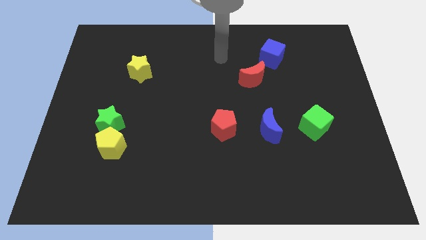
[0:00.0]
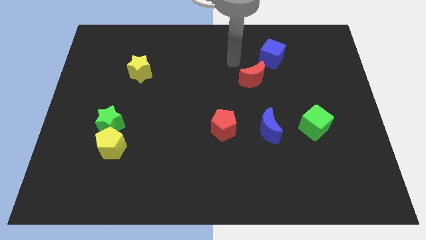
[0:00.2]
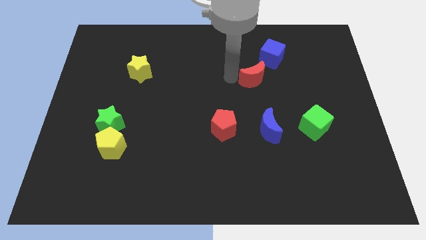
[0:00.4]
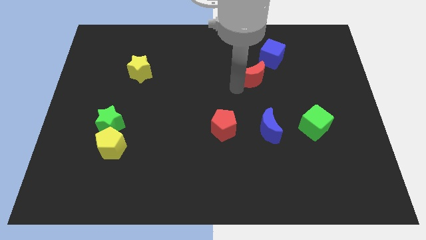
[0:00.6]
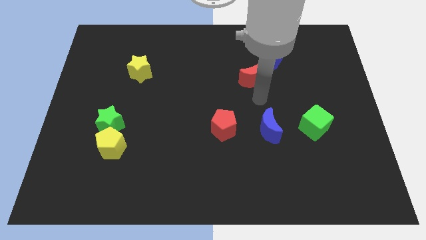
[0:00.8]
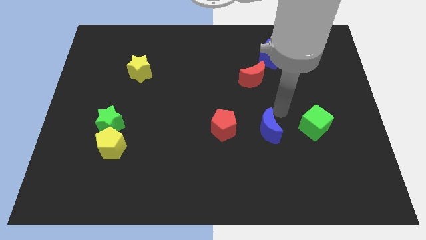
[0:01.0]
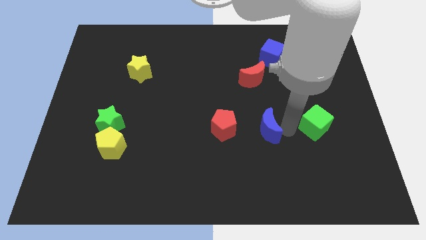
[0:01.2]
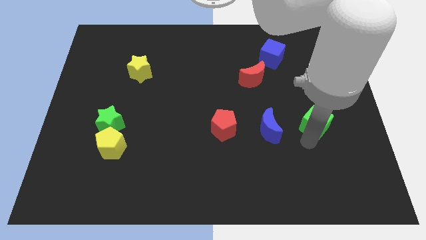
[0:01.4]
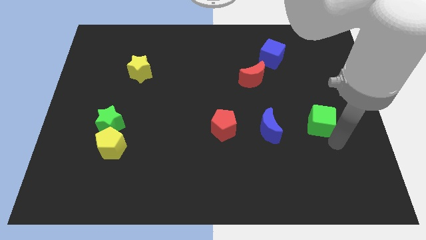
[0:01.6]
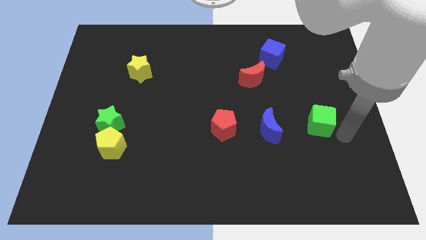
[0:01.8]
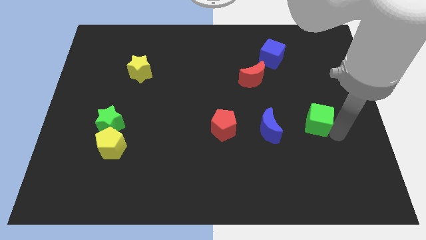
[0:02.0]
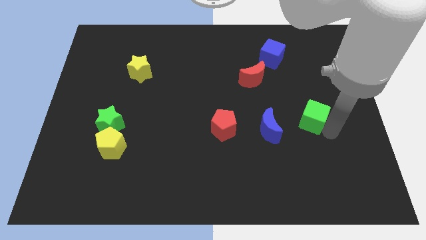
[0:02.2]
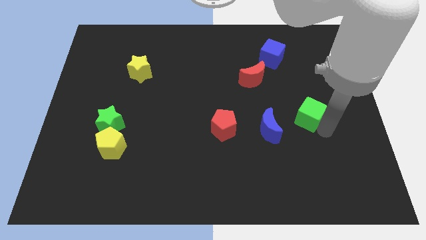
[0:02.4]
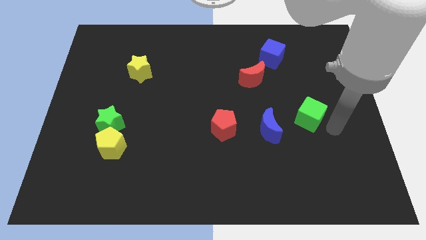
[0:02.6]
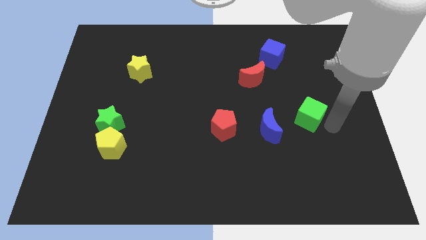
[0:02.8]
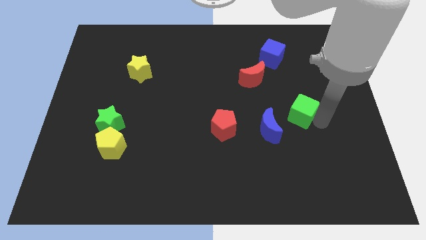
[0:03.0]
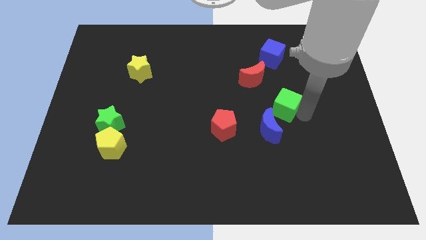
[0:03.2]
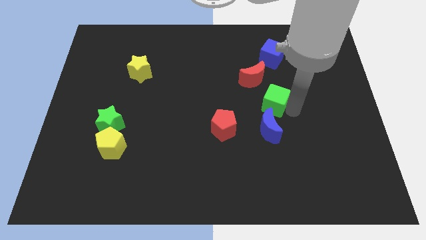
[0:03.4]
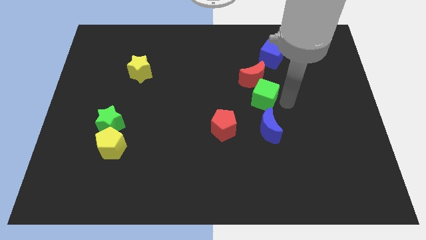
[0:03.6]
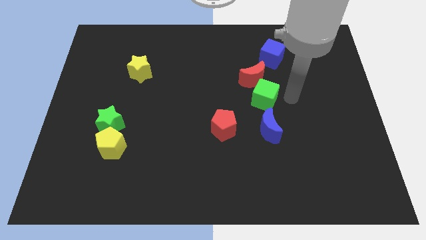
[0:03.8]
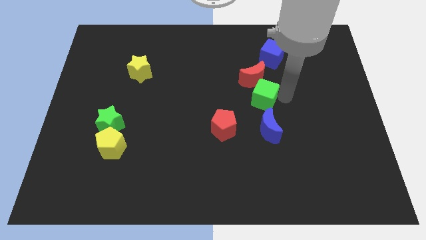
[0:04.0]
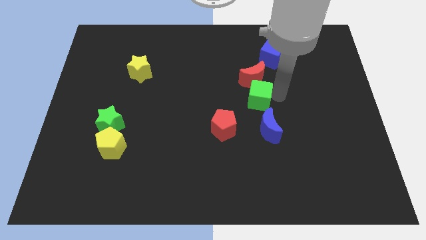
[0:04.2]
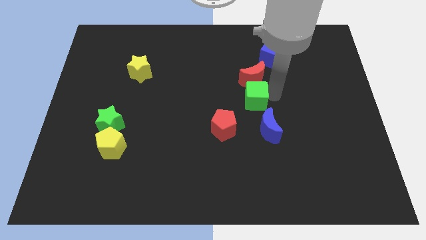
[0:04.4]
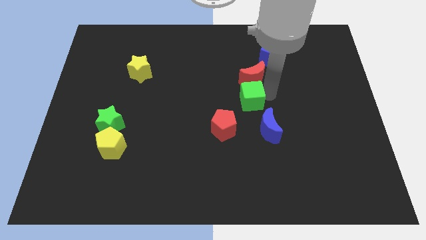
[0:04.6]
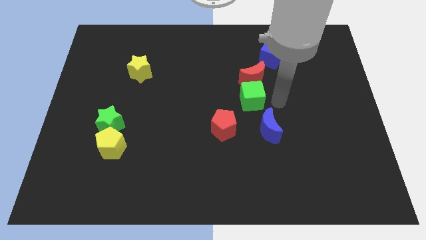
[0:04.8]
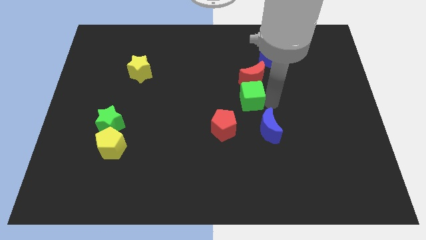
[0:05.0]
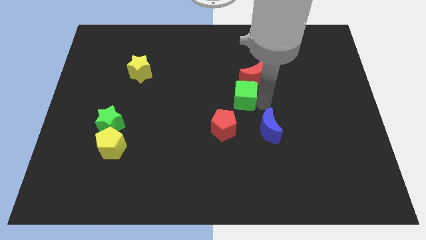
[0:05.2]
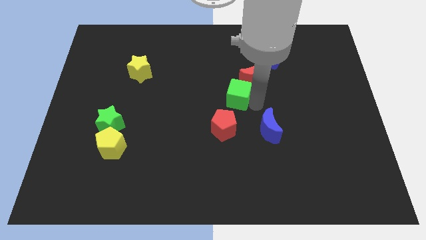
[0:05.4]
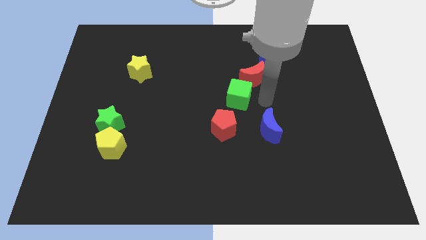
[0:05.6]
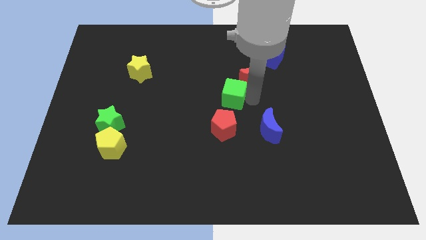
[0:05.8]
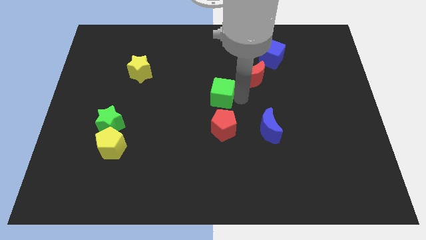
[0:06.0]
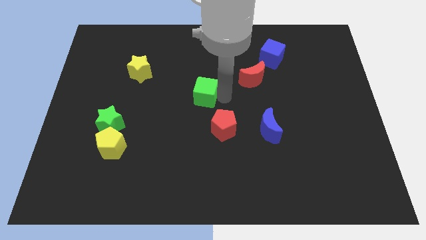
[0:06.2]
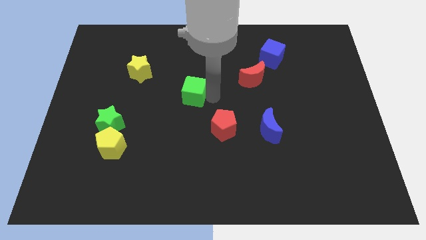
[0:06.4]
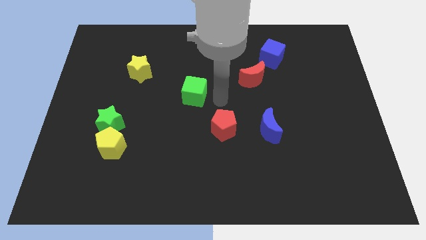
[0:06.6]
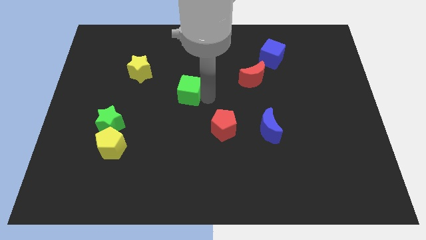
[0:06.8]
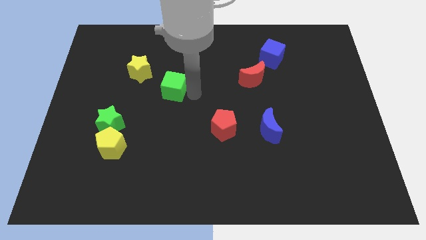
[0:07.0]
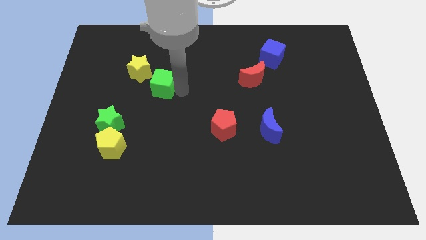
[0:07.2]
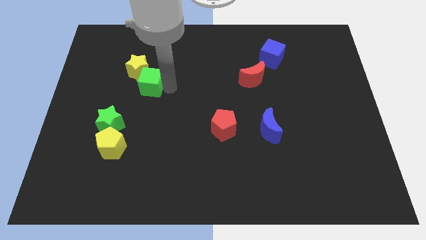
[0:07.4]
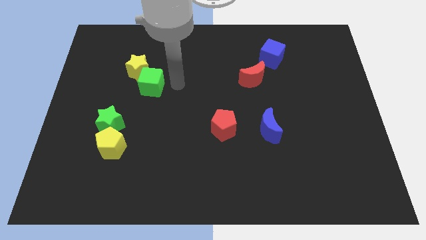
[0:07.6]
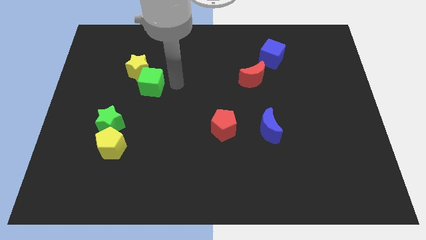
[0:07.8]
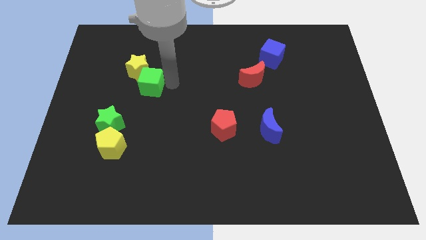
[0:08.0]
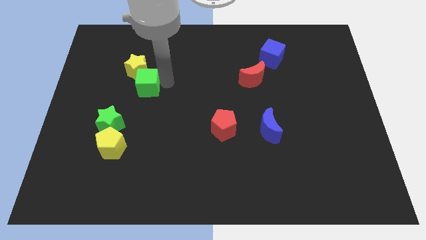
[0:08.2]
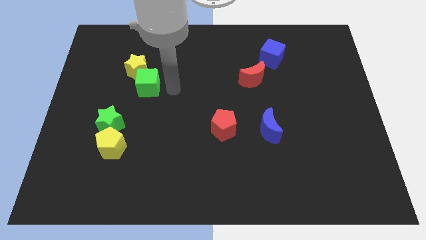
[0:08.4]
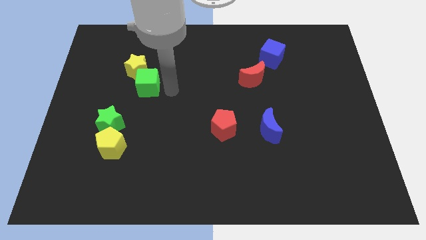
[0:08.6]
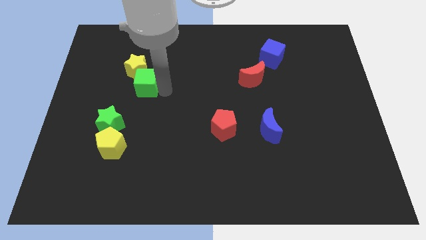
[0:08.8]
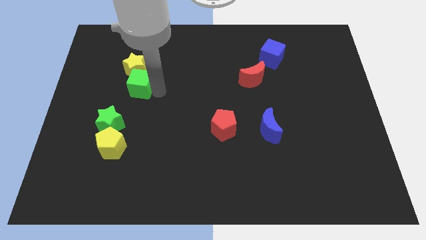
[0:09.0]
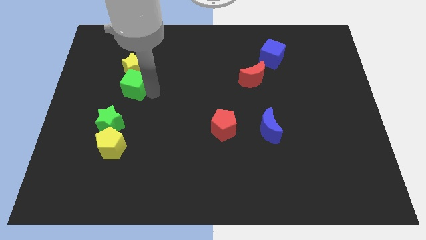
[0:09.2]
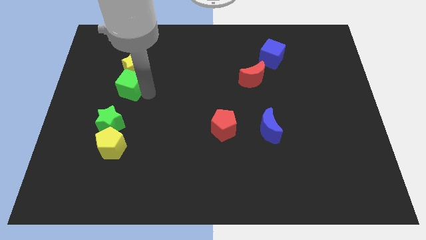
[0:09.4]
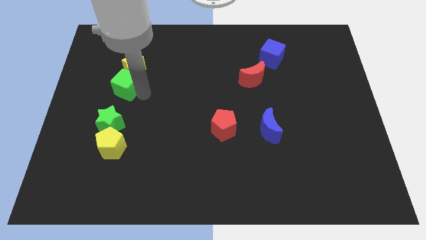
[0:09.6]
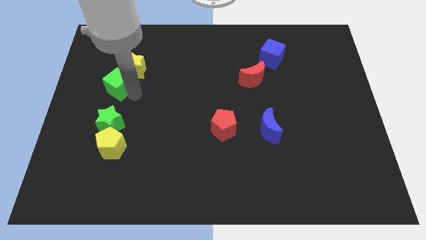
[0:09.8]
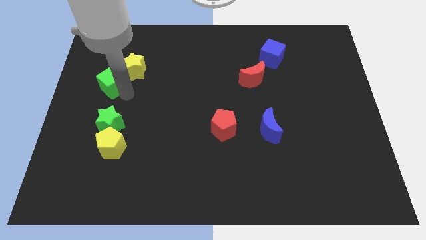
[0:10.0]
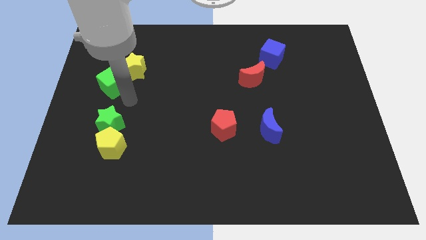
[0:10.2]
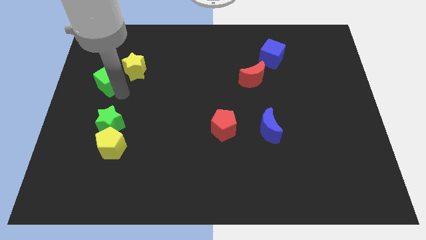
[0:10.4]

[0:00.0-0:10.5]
put the green cube to the left of the yellow star
